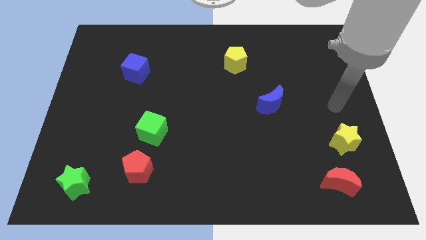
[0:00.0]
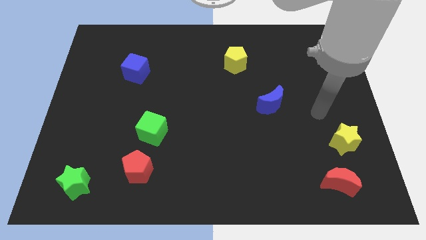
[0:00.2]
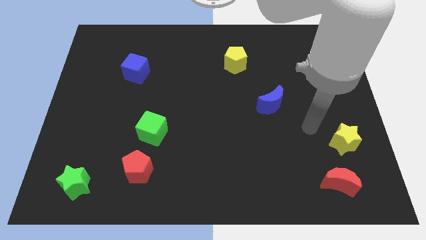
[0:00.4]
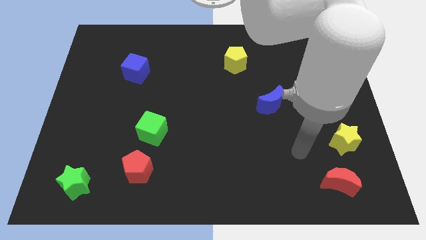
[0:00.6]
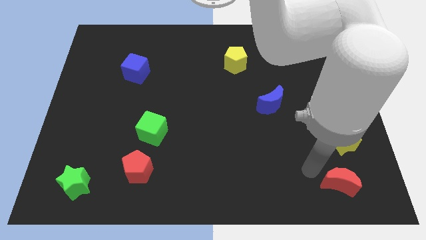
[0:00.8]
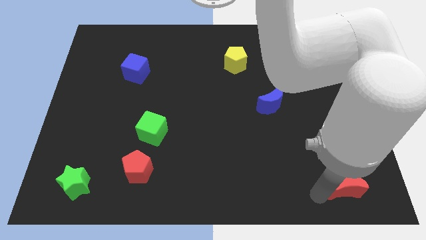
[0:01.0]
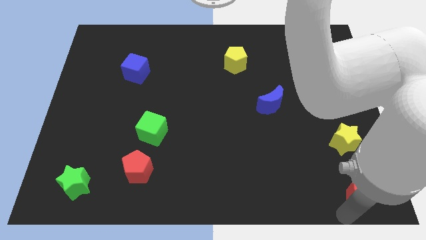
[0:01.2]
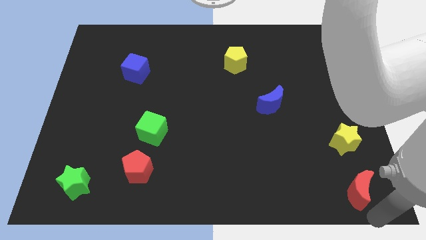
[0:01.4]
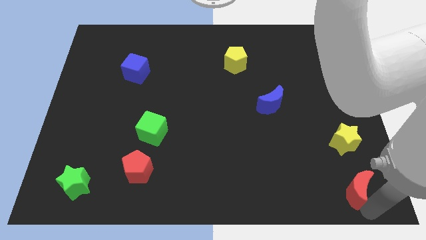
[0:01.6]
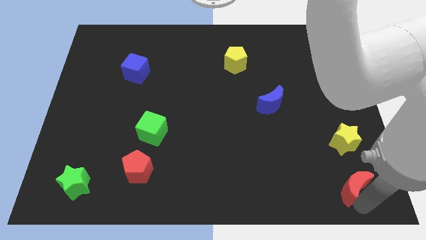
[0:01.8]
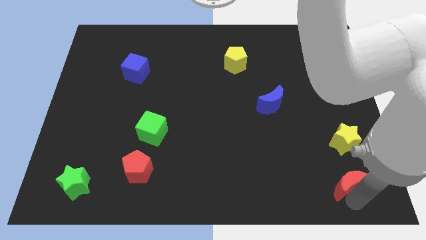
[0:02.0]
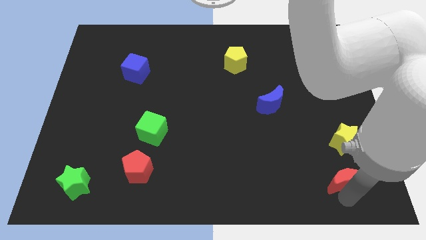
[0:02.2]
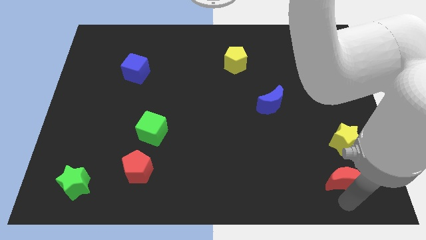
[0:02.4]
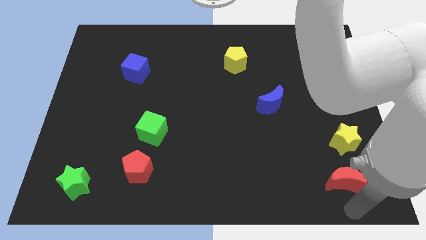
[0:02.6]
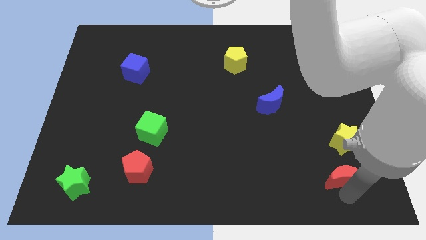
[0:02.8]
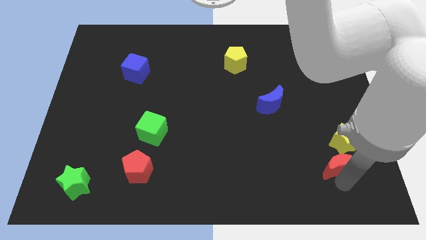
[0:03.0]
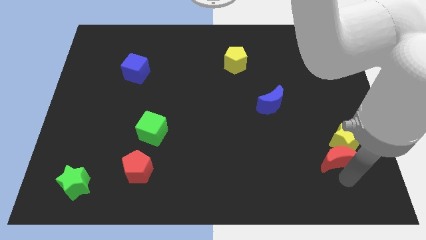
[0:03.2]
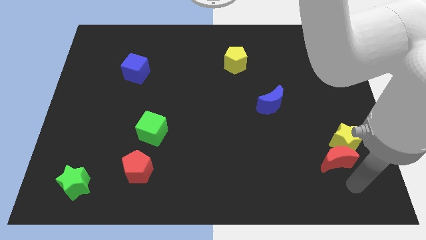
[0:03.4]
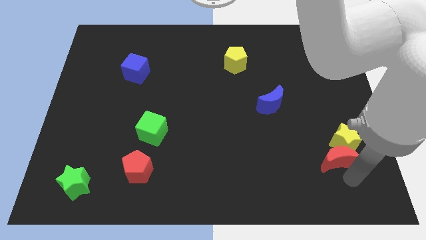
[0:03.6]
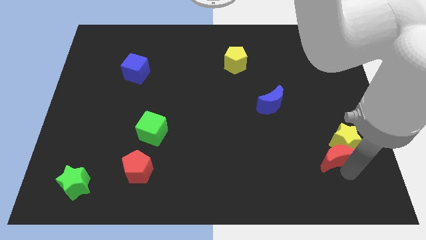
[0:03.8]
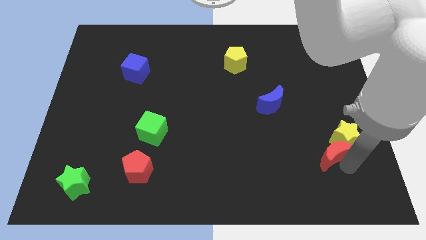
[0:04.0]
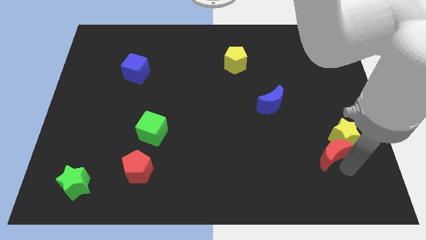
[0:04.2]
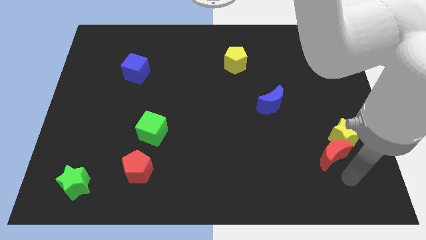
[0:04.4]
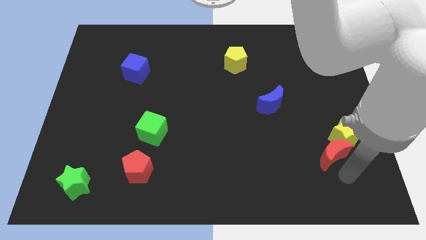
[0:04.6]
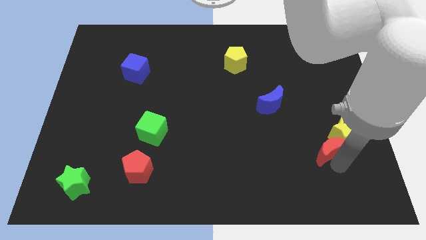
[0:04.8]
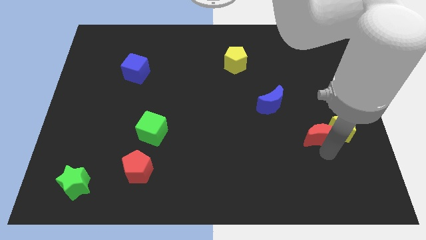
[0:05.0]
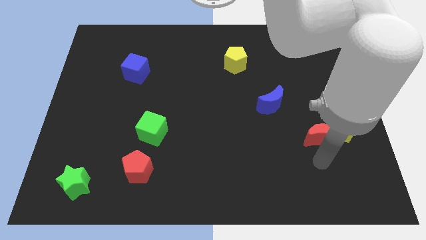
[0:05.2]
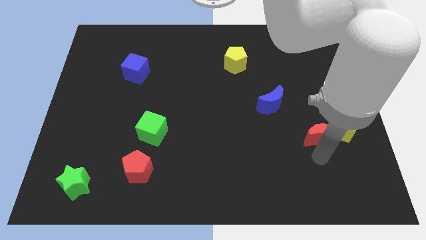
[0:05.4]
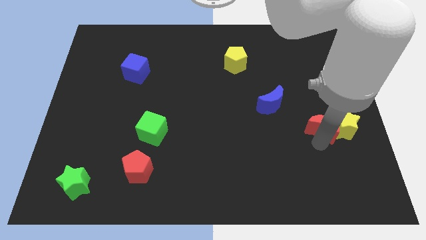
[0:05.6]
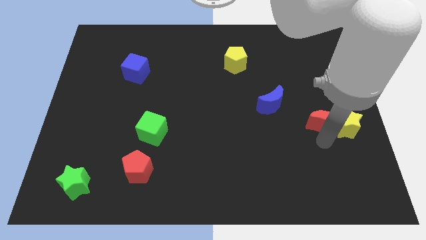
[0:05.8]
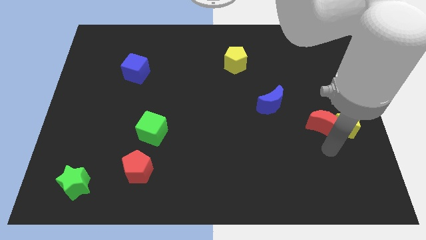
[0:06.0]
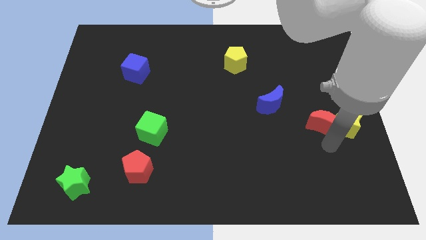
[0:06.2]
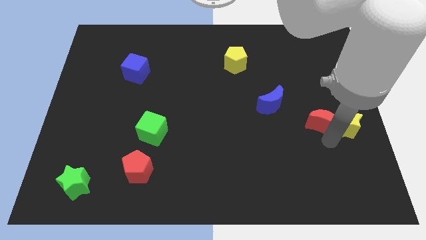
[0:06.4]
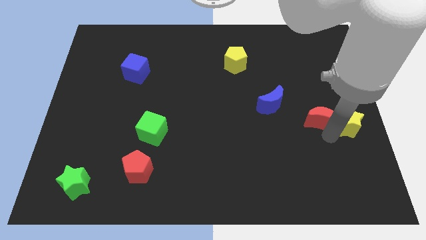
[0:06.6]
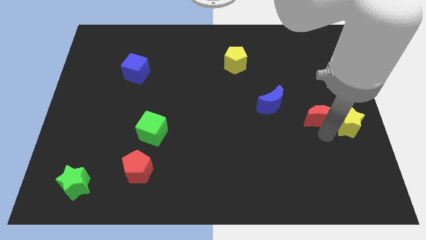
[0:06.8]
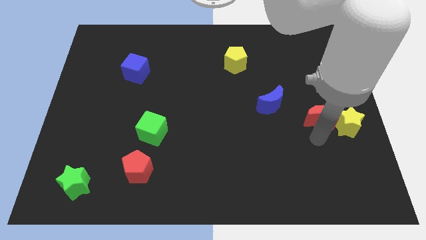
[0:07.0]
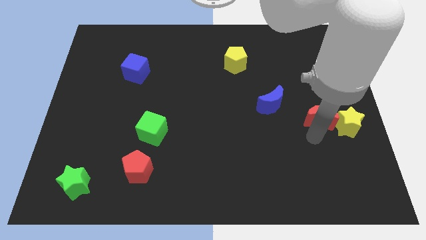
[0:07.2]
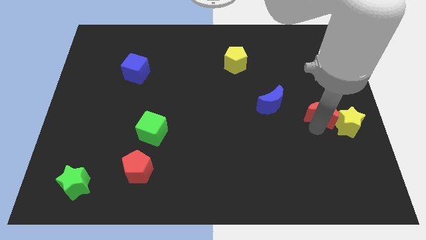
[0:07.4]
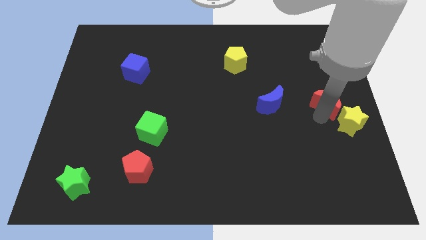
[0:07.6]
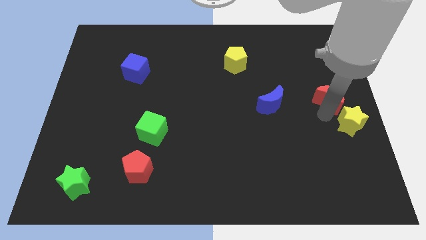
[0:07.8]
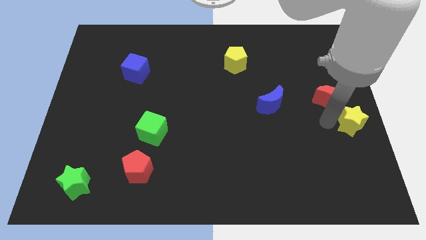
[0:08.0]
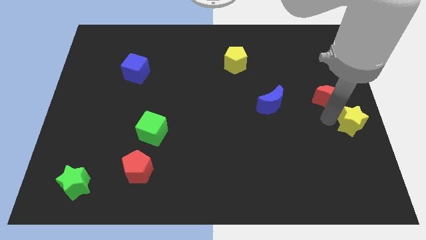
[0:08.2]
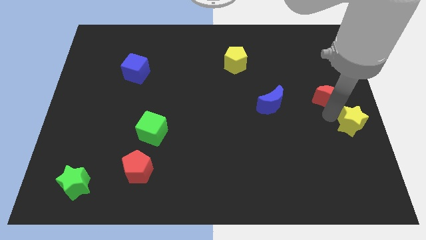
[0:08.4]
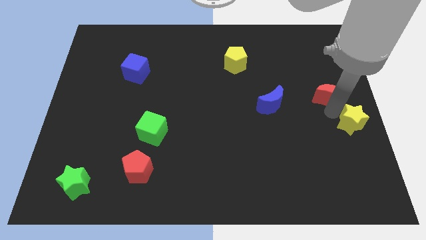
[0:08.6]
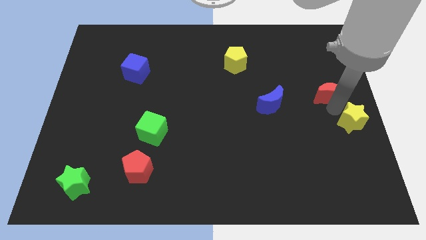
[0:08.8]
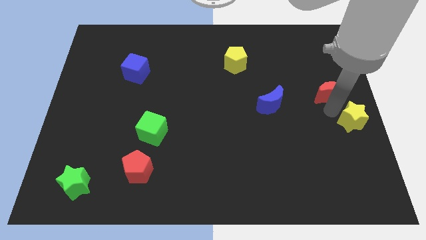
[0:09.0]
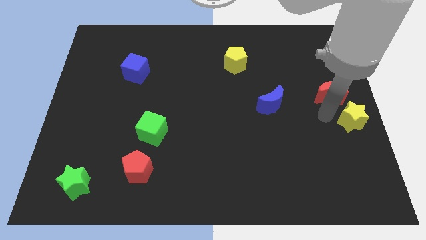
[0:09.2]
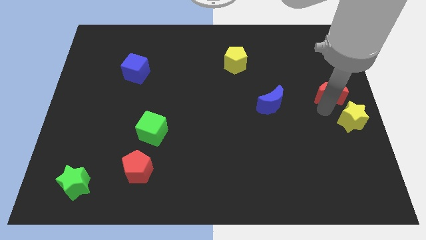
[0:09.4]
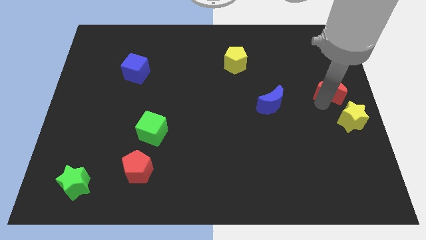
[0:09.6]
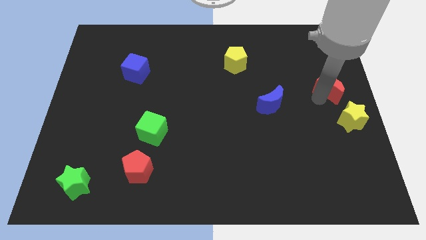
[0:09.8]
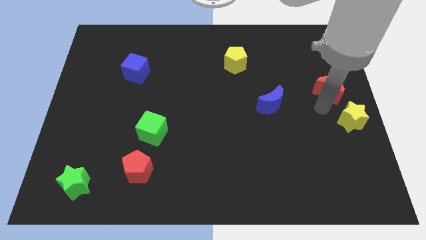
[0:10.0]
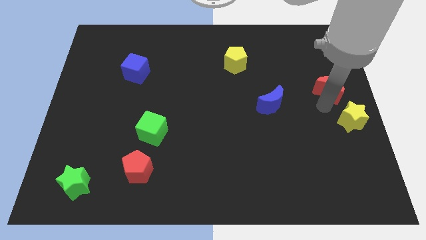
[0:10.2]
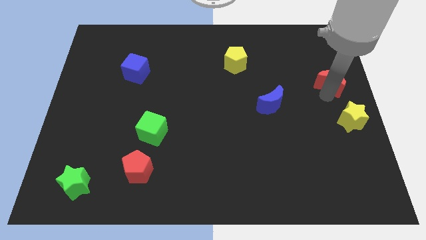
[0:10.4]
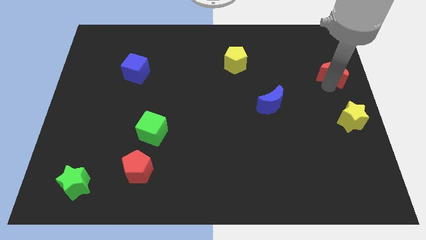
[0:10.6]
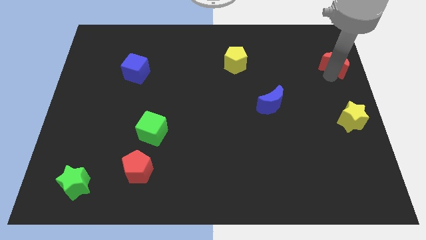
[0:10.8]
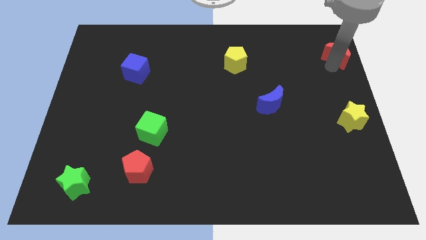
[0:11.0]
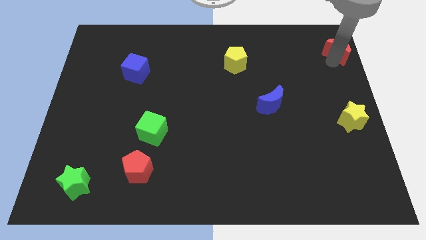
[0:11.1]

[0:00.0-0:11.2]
push the red moon to the upper right corner
